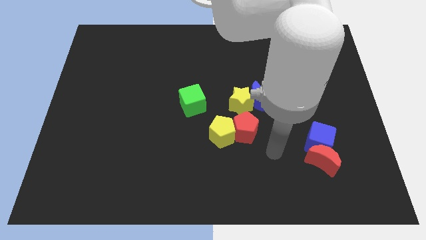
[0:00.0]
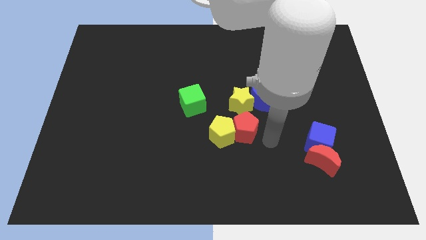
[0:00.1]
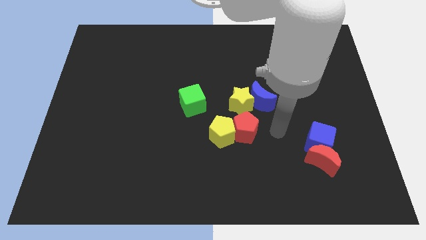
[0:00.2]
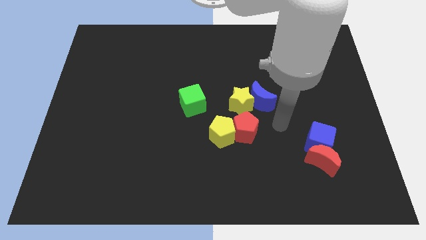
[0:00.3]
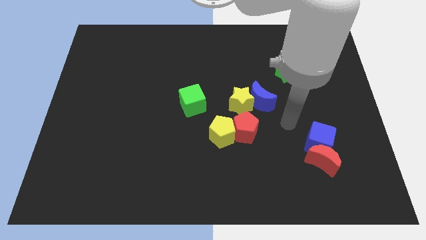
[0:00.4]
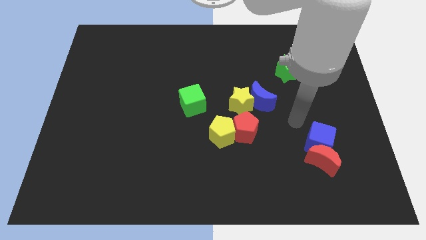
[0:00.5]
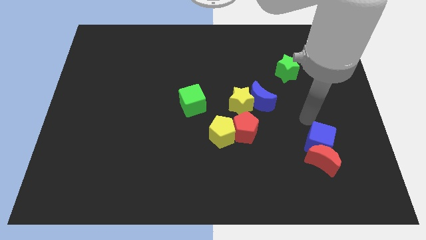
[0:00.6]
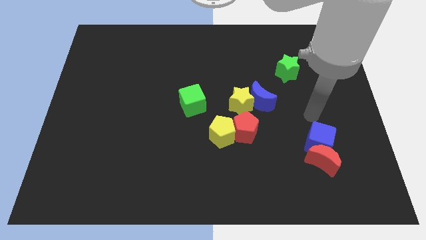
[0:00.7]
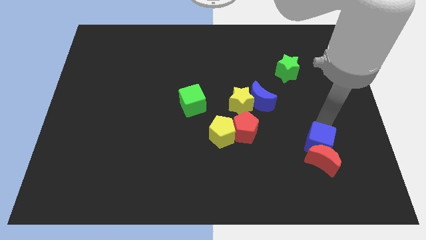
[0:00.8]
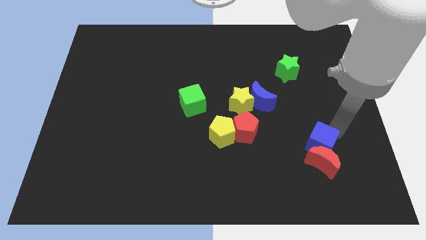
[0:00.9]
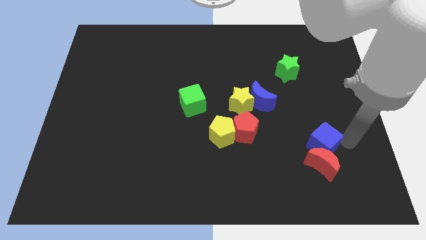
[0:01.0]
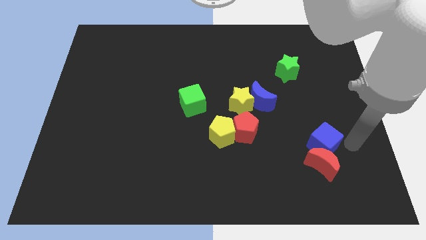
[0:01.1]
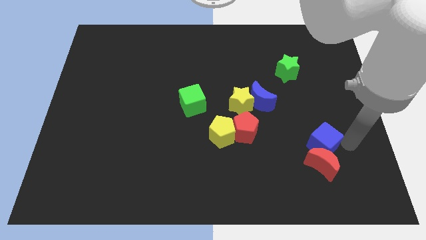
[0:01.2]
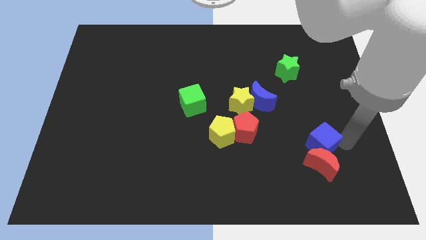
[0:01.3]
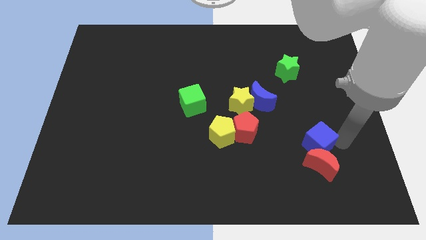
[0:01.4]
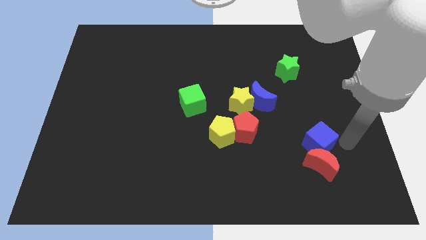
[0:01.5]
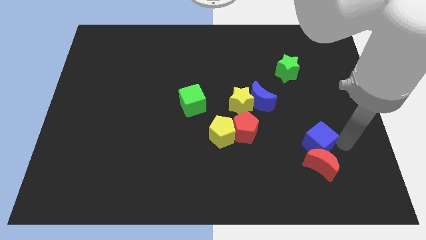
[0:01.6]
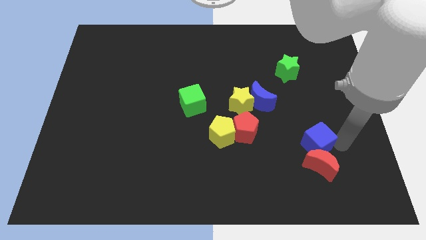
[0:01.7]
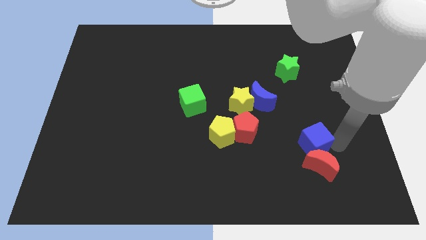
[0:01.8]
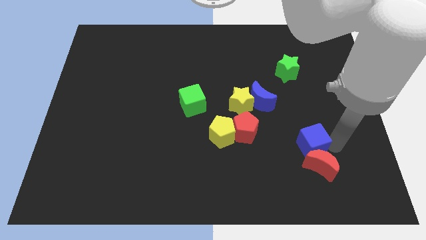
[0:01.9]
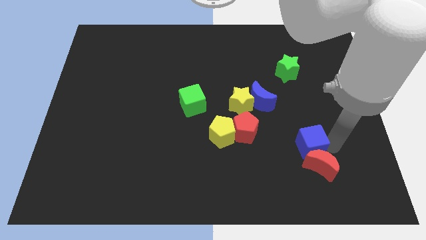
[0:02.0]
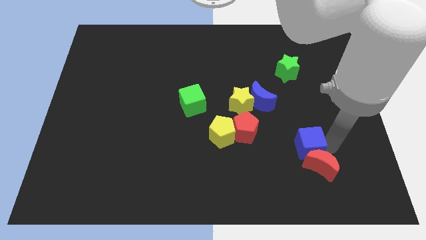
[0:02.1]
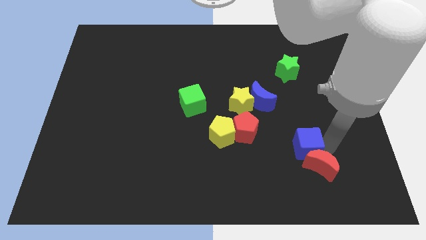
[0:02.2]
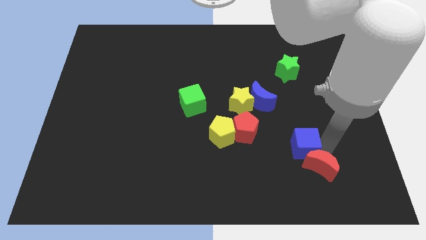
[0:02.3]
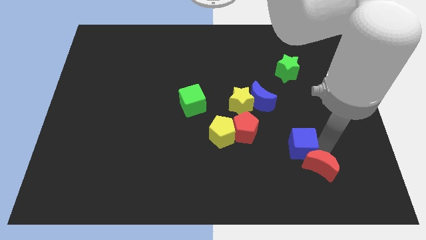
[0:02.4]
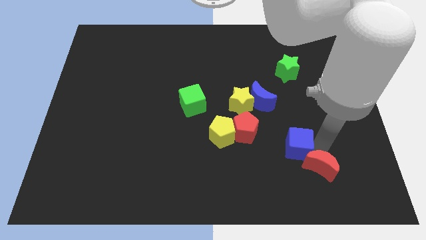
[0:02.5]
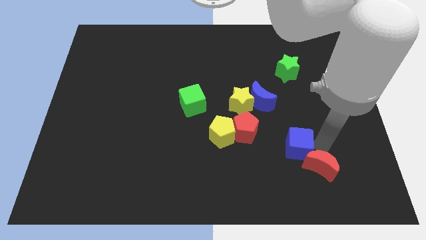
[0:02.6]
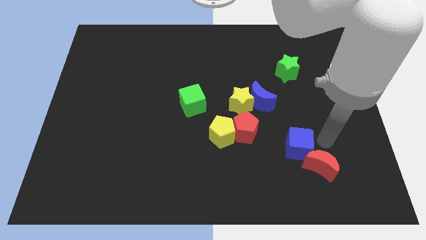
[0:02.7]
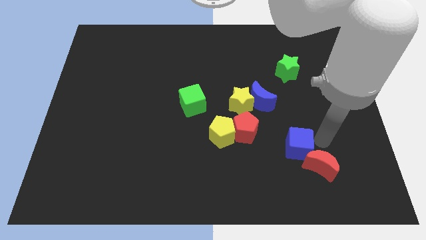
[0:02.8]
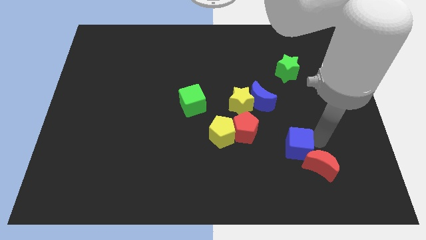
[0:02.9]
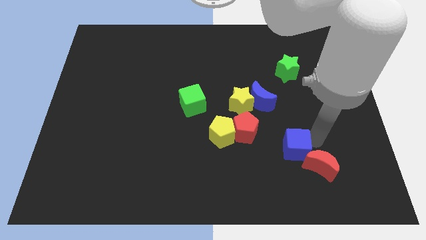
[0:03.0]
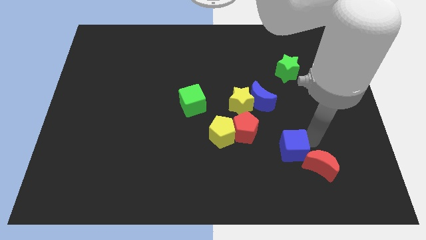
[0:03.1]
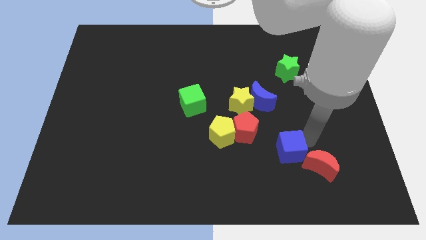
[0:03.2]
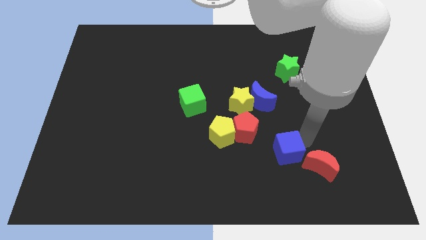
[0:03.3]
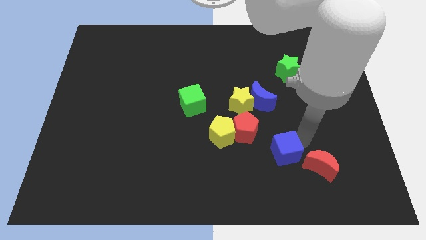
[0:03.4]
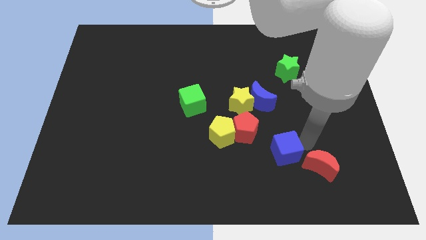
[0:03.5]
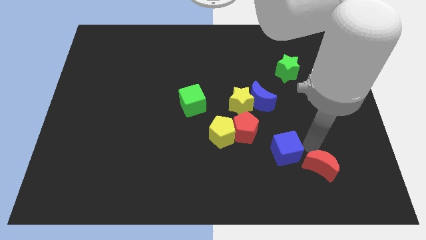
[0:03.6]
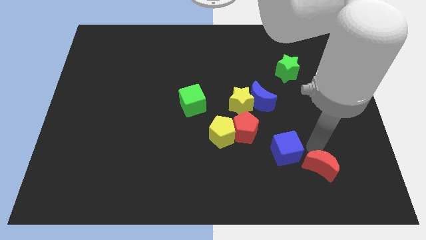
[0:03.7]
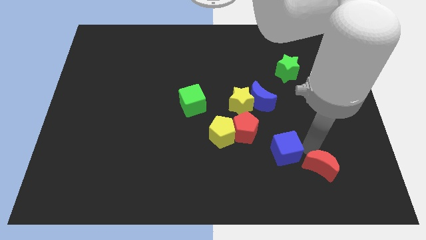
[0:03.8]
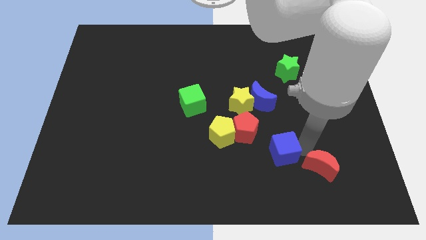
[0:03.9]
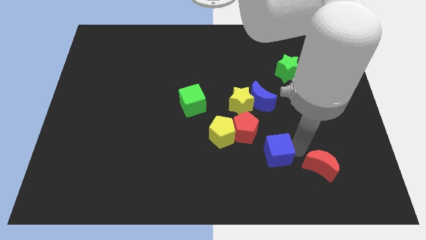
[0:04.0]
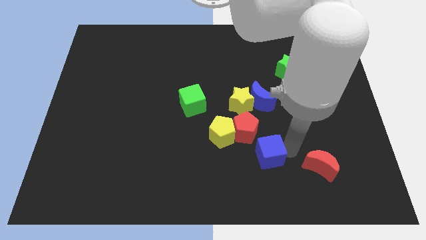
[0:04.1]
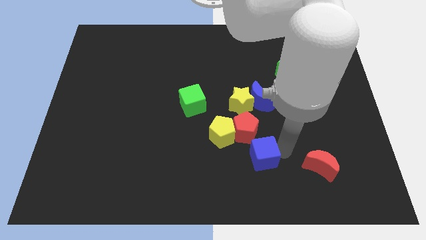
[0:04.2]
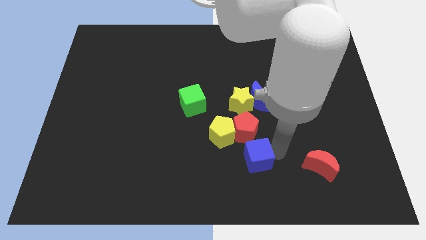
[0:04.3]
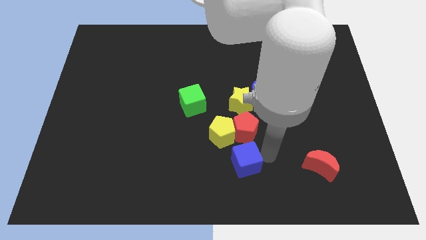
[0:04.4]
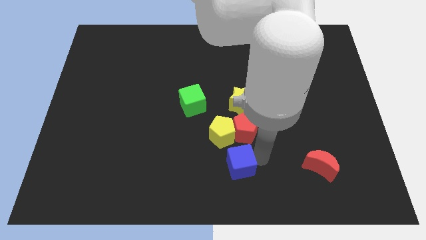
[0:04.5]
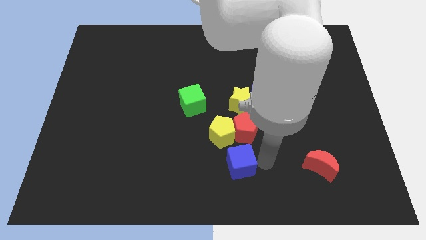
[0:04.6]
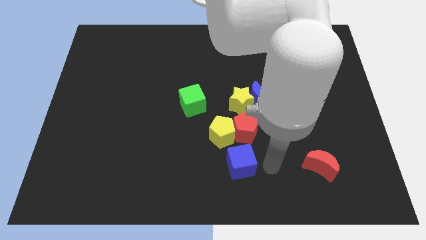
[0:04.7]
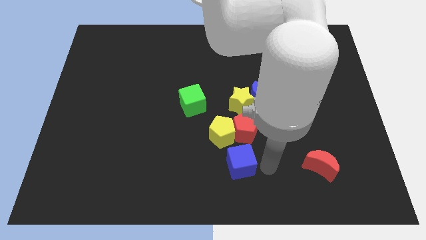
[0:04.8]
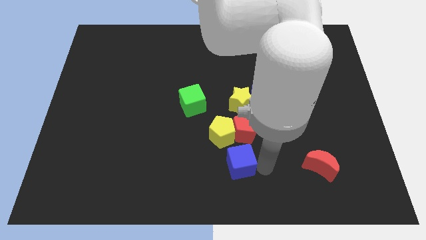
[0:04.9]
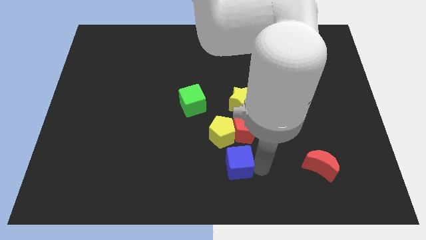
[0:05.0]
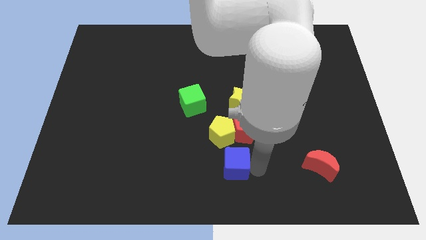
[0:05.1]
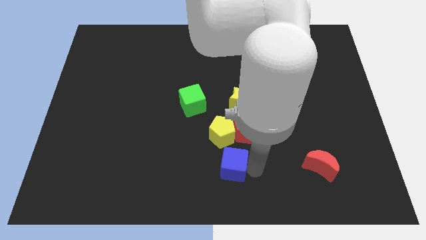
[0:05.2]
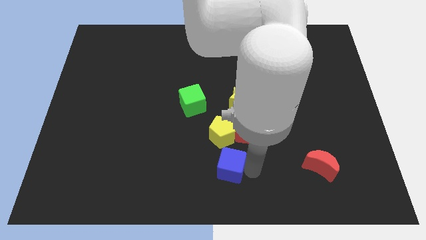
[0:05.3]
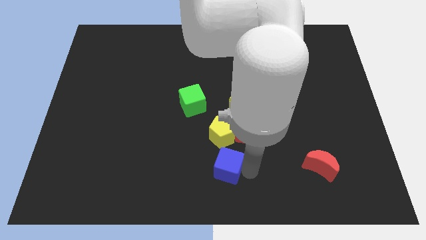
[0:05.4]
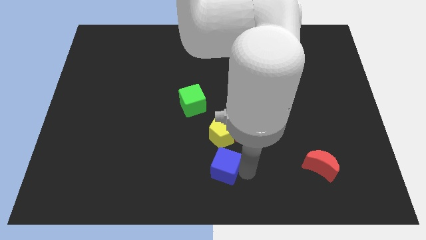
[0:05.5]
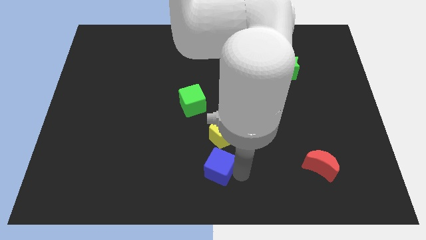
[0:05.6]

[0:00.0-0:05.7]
slide the blue cube to the left

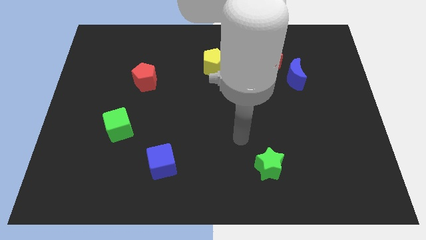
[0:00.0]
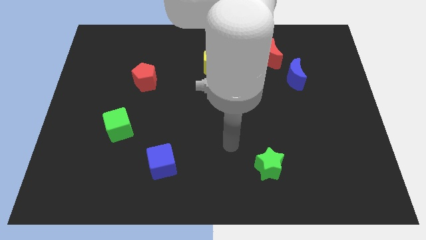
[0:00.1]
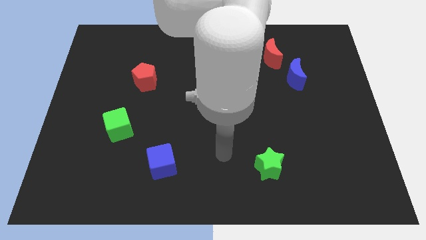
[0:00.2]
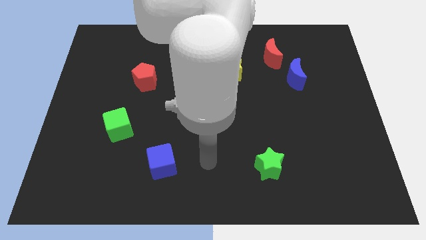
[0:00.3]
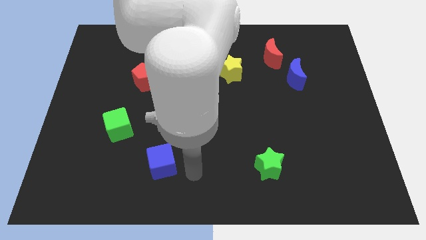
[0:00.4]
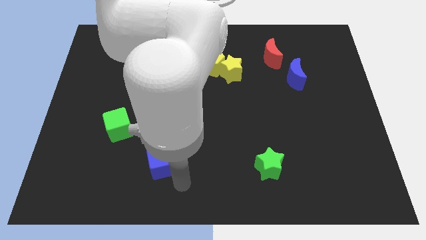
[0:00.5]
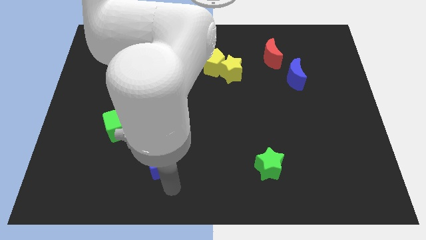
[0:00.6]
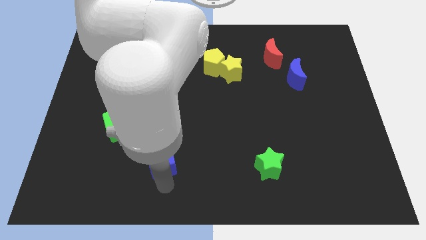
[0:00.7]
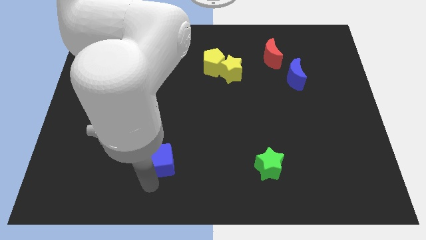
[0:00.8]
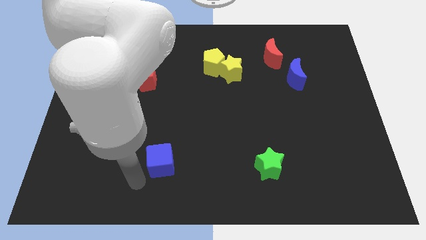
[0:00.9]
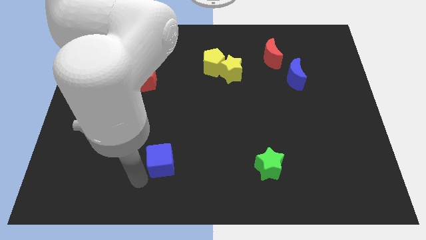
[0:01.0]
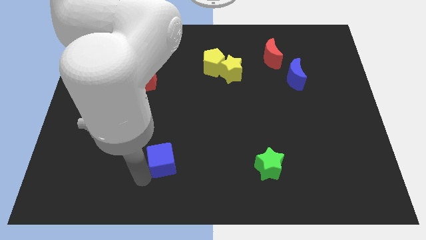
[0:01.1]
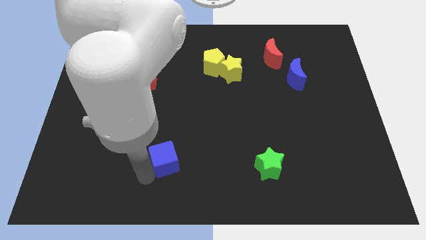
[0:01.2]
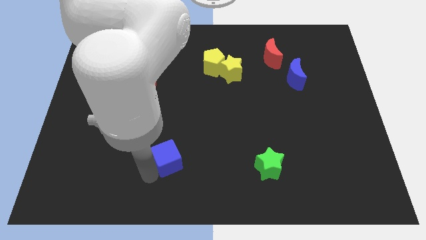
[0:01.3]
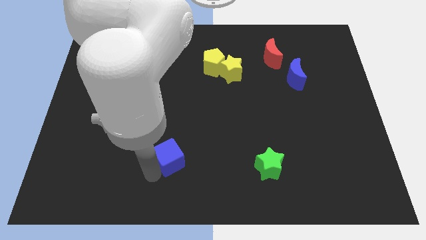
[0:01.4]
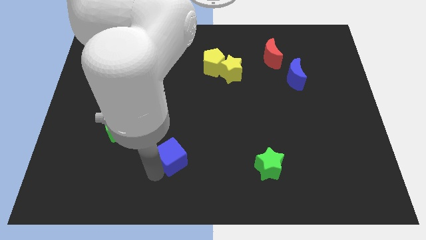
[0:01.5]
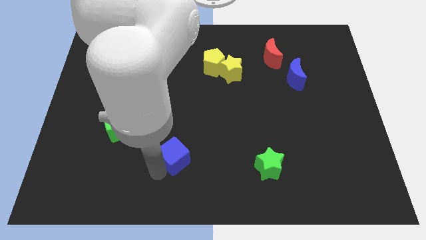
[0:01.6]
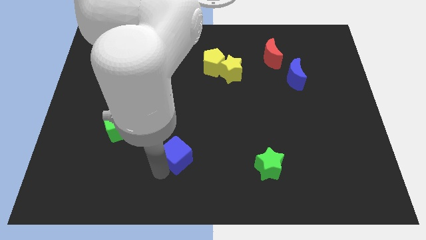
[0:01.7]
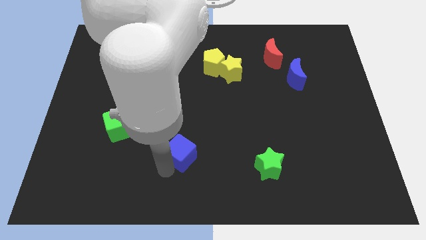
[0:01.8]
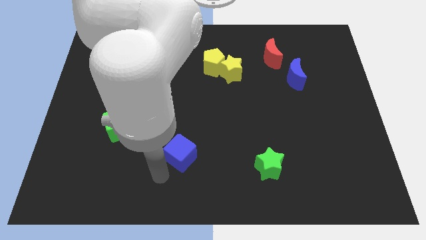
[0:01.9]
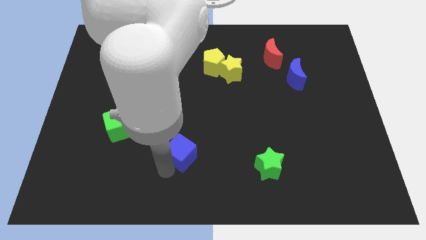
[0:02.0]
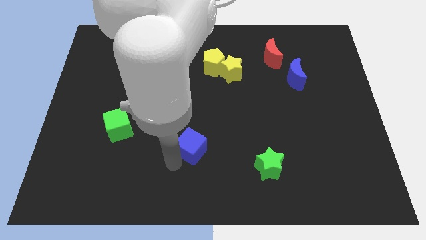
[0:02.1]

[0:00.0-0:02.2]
slide the blue cube up and then right a little
